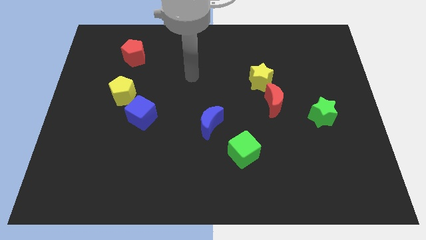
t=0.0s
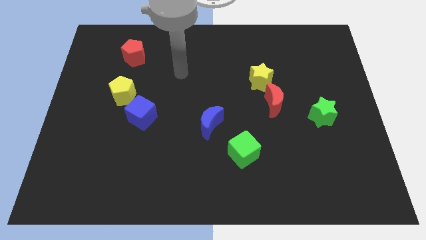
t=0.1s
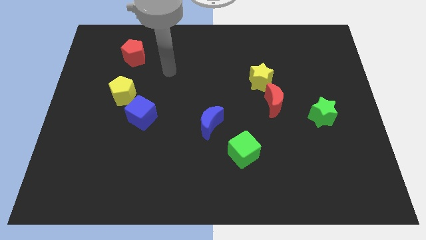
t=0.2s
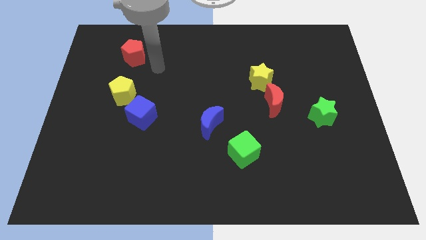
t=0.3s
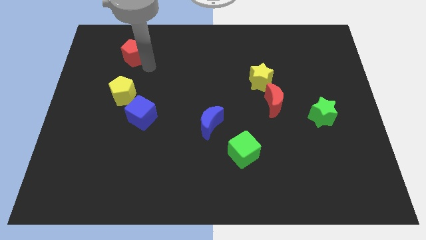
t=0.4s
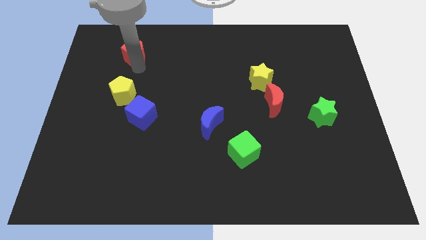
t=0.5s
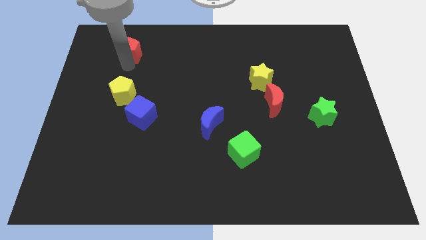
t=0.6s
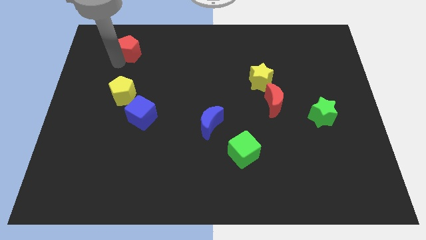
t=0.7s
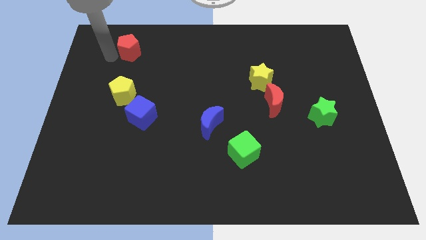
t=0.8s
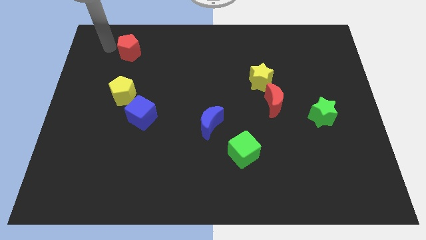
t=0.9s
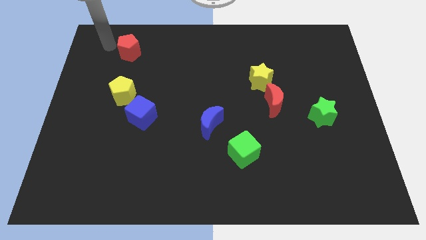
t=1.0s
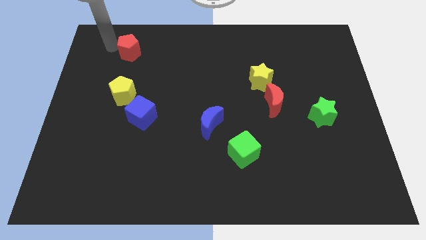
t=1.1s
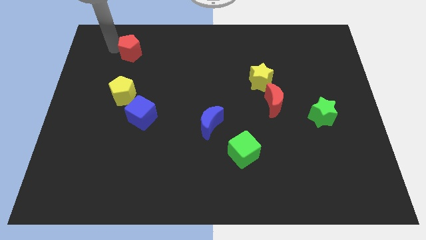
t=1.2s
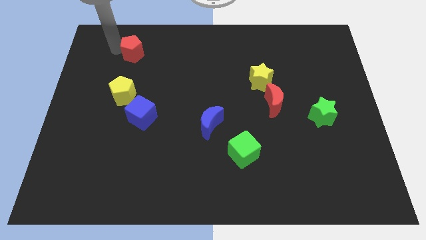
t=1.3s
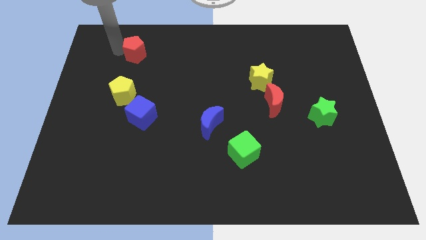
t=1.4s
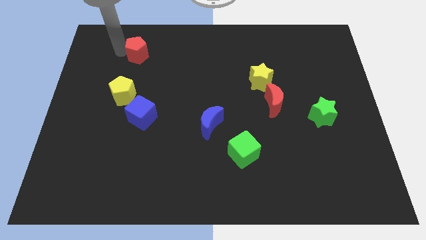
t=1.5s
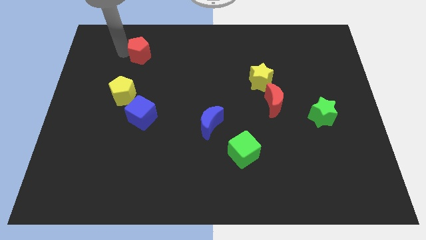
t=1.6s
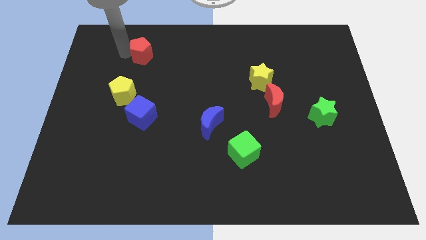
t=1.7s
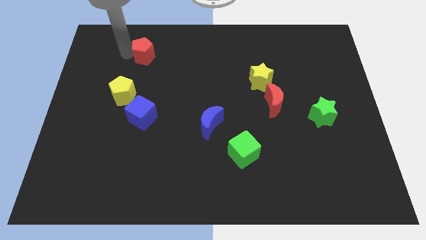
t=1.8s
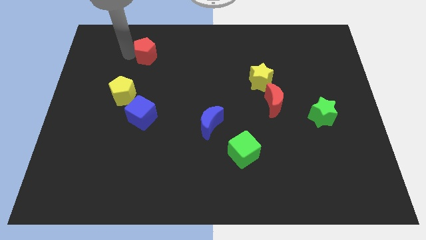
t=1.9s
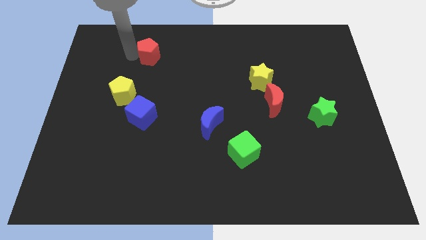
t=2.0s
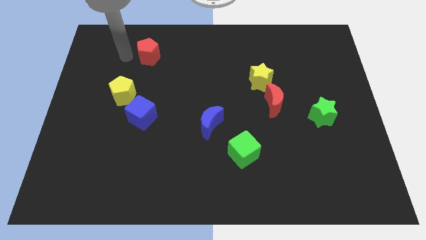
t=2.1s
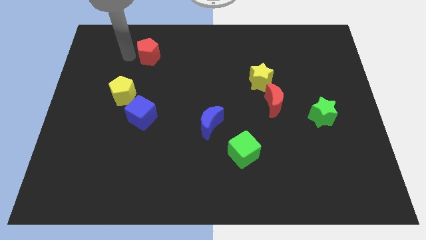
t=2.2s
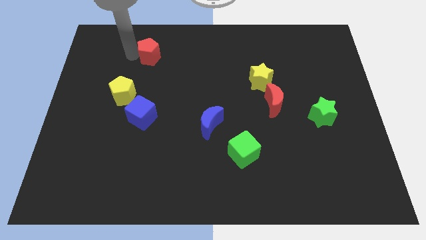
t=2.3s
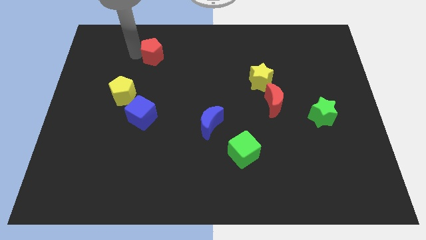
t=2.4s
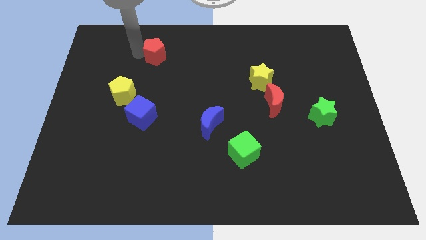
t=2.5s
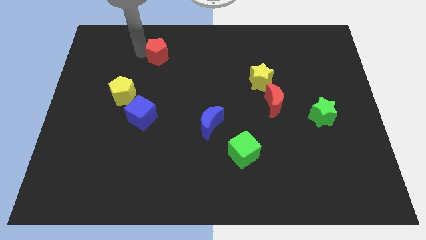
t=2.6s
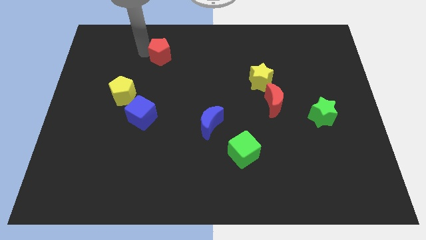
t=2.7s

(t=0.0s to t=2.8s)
move the red pentagon somewhat to the right

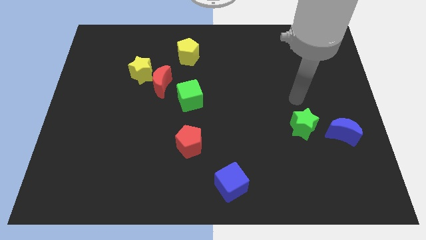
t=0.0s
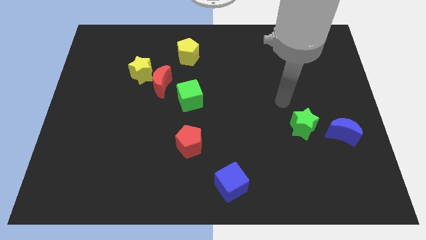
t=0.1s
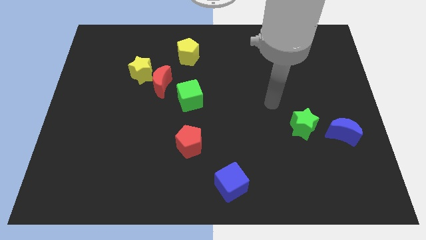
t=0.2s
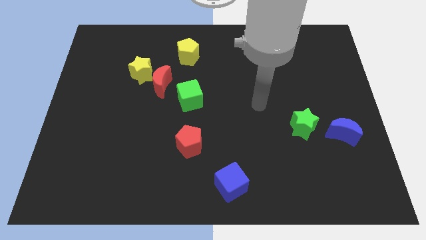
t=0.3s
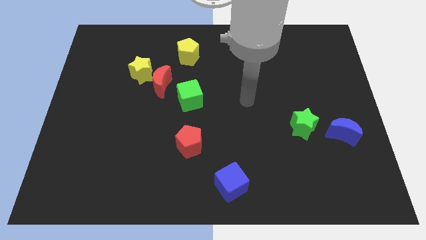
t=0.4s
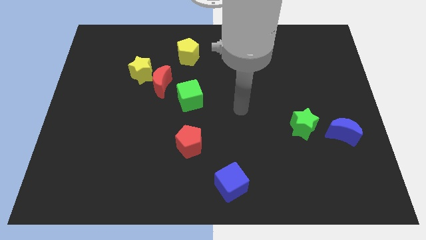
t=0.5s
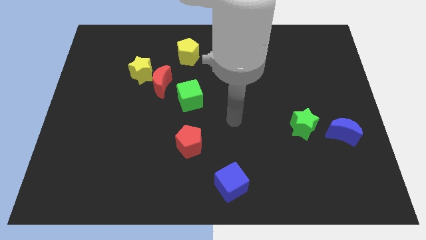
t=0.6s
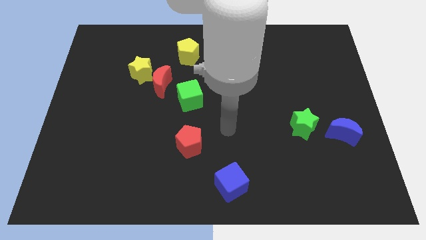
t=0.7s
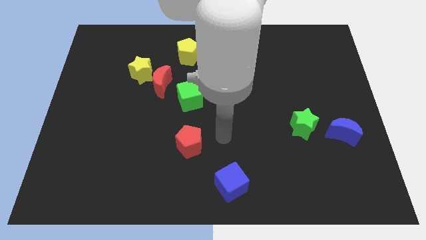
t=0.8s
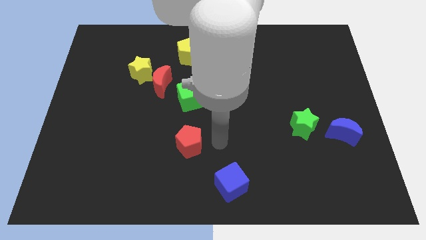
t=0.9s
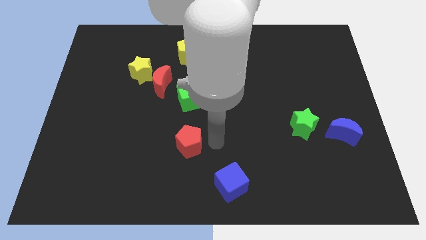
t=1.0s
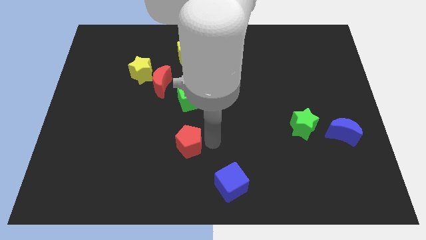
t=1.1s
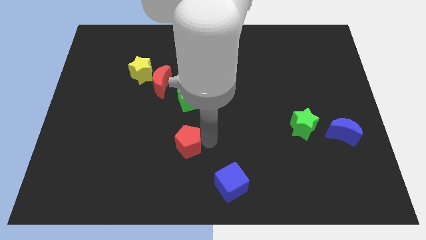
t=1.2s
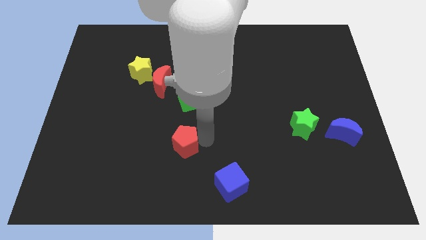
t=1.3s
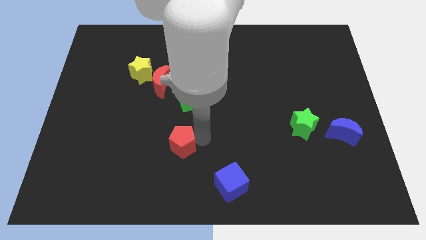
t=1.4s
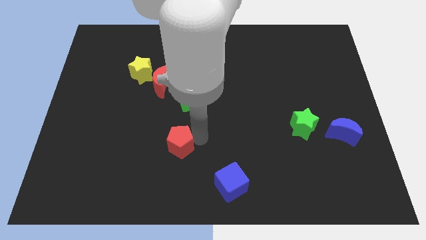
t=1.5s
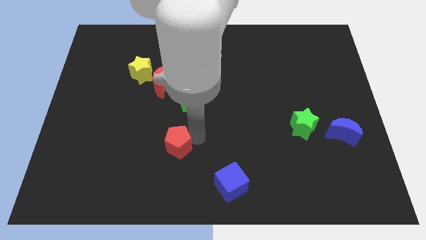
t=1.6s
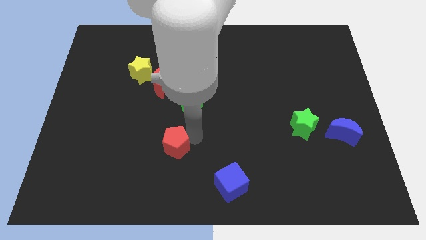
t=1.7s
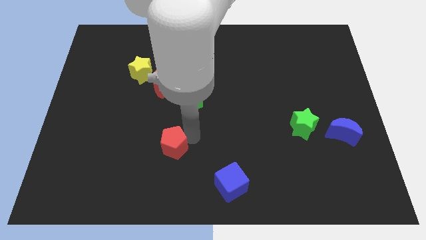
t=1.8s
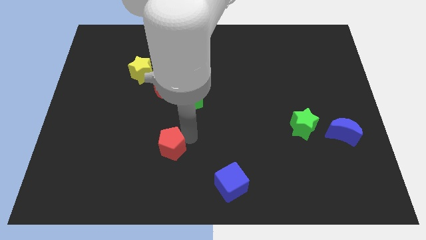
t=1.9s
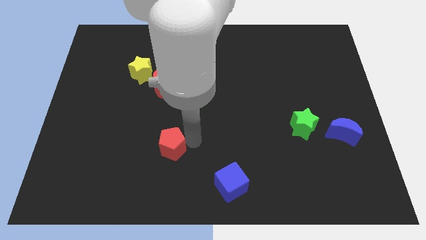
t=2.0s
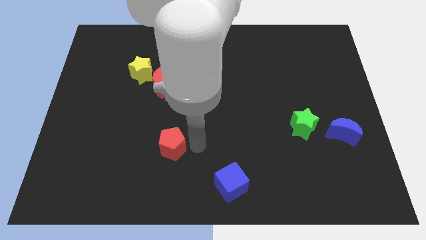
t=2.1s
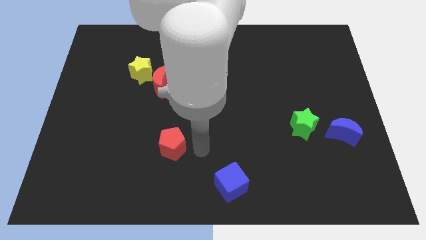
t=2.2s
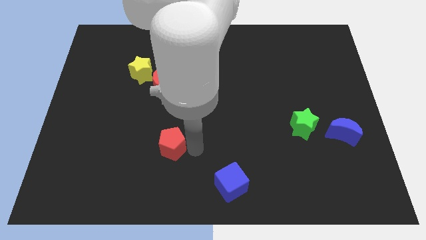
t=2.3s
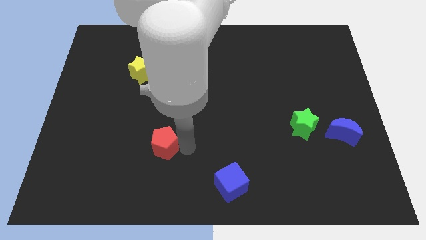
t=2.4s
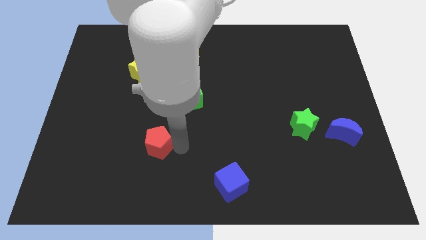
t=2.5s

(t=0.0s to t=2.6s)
move the red pentagon to the left a little bit

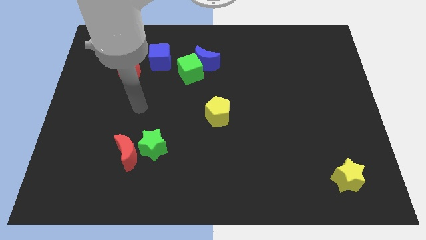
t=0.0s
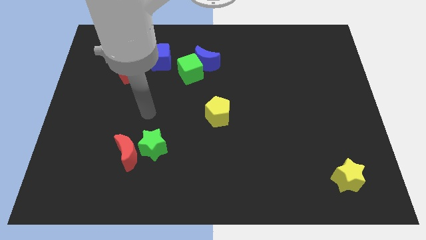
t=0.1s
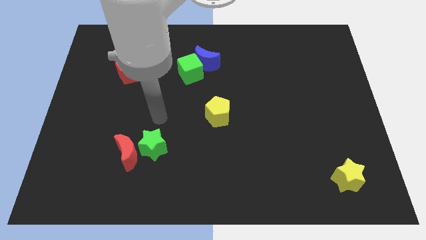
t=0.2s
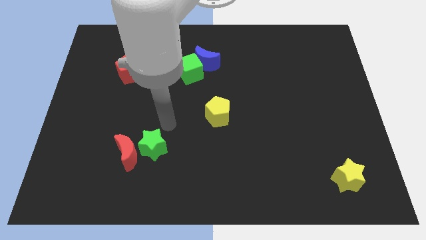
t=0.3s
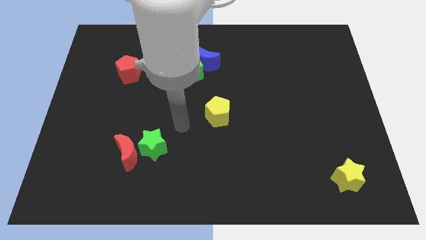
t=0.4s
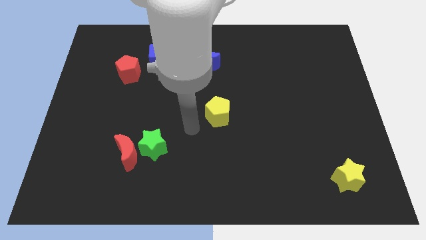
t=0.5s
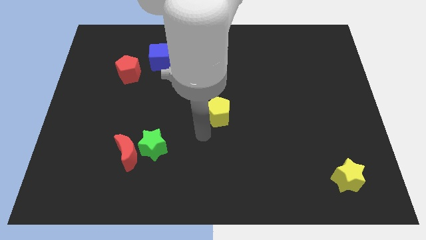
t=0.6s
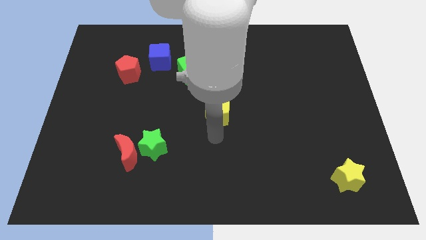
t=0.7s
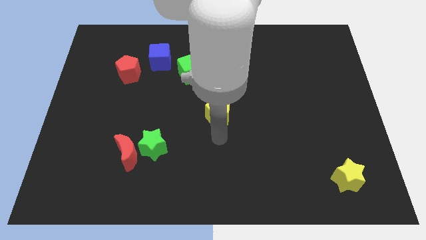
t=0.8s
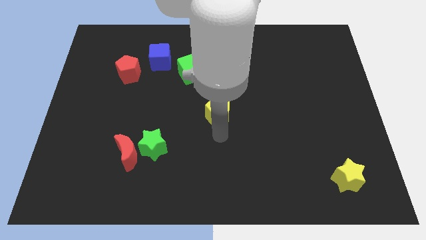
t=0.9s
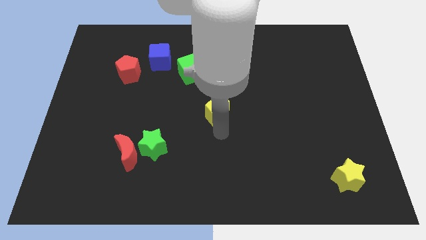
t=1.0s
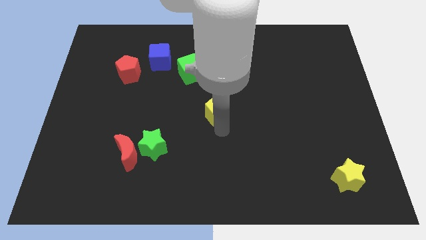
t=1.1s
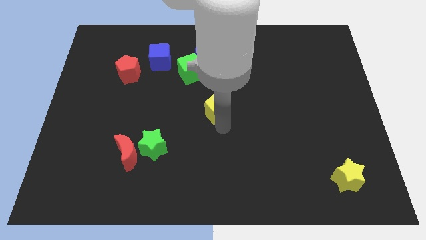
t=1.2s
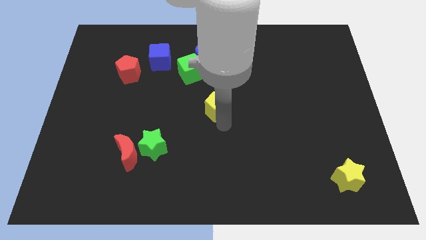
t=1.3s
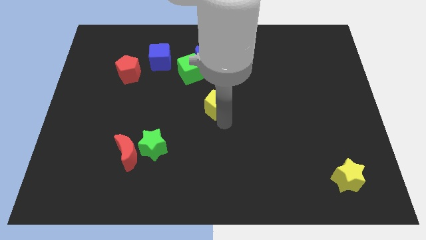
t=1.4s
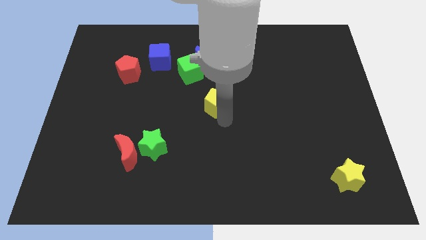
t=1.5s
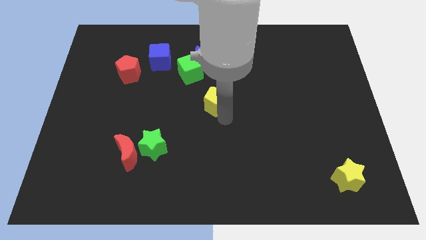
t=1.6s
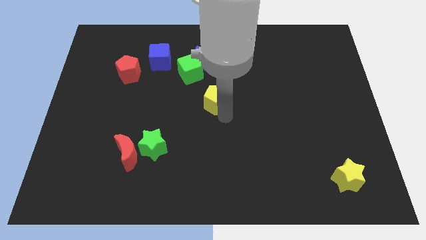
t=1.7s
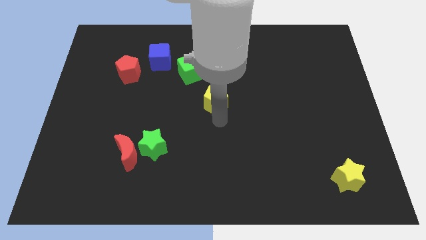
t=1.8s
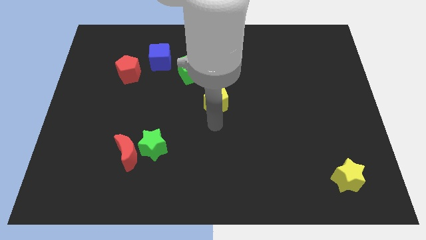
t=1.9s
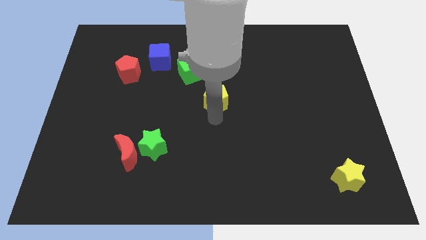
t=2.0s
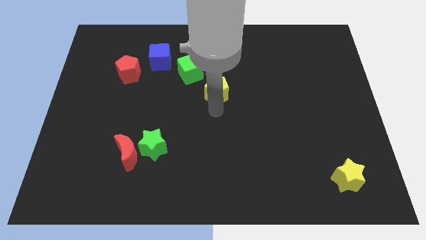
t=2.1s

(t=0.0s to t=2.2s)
slightly slide the yellow pentagon up

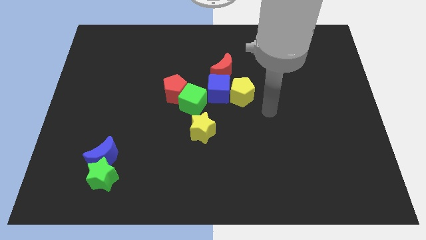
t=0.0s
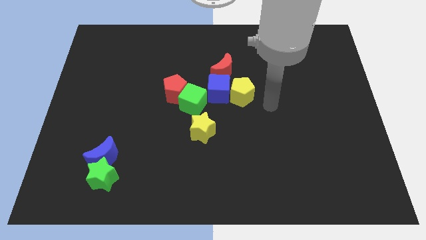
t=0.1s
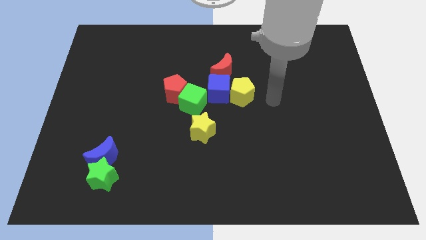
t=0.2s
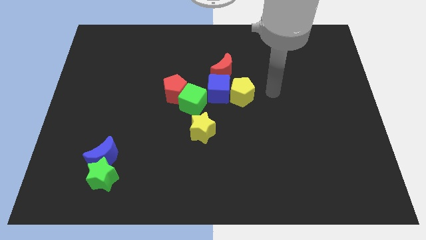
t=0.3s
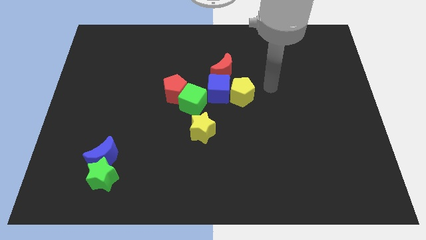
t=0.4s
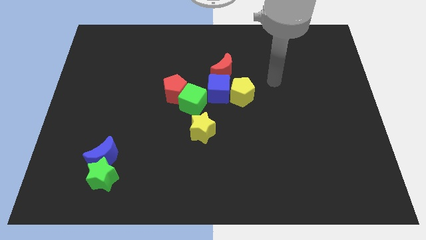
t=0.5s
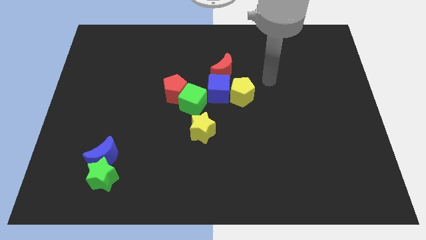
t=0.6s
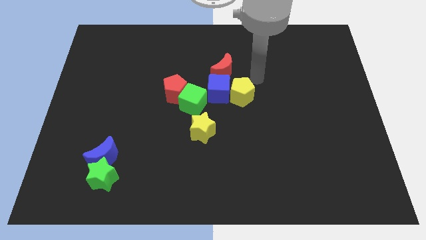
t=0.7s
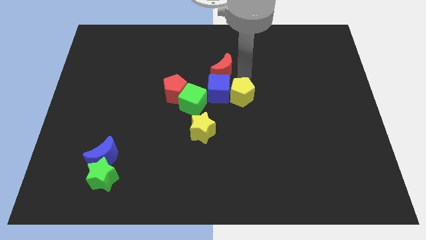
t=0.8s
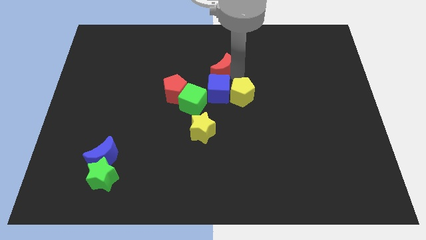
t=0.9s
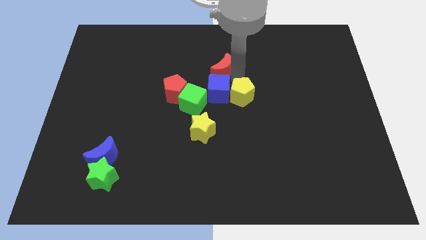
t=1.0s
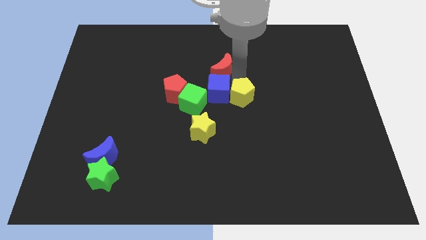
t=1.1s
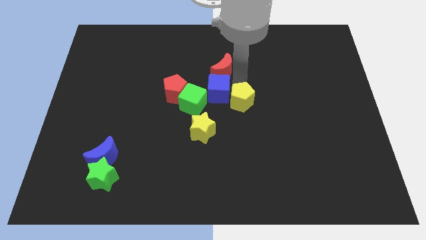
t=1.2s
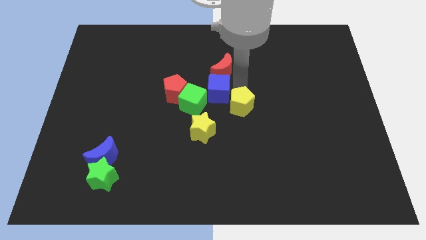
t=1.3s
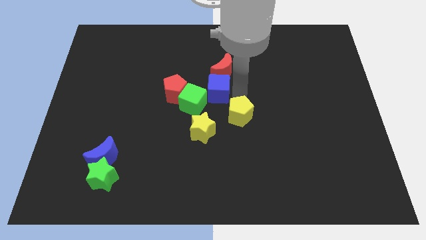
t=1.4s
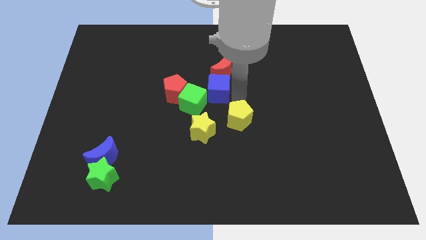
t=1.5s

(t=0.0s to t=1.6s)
slightly push the yellow pentagon down
